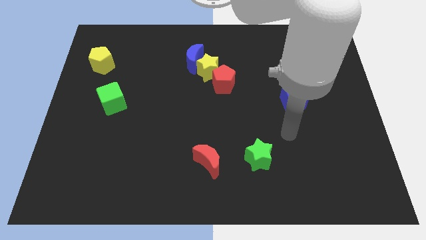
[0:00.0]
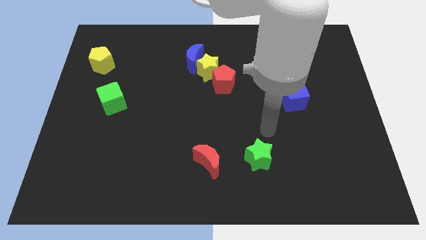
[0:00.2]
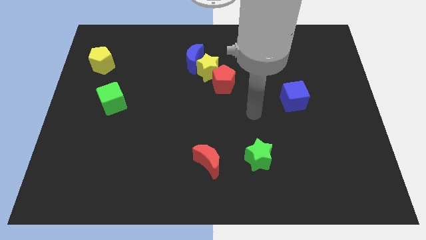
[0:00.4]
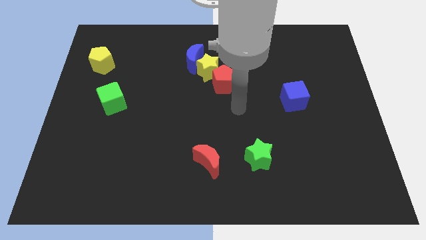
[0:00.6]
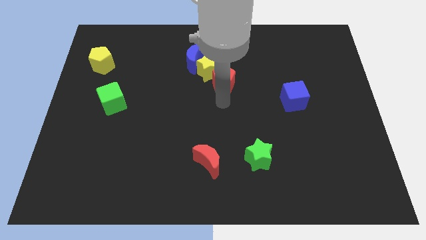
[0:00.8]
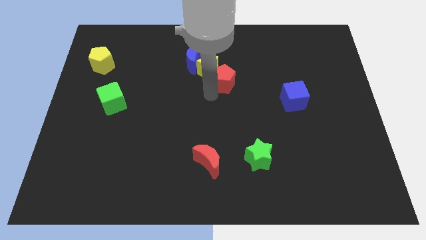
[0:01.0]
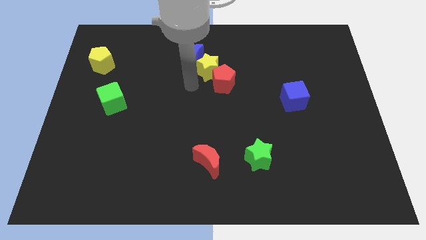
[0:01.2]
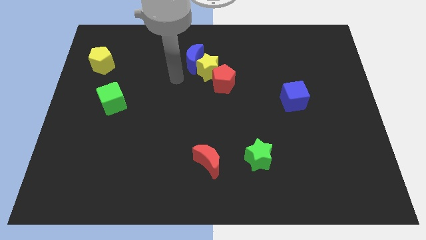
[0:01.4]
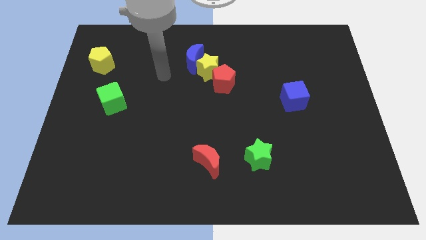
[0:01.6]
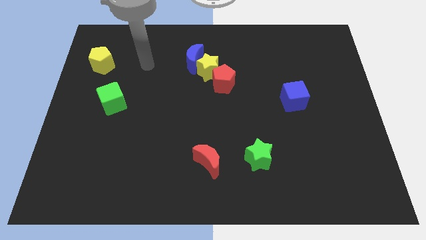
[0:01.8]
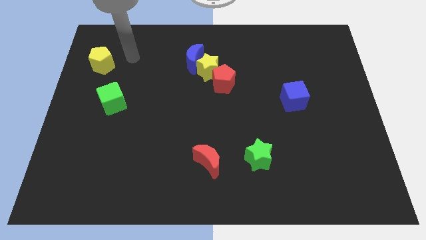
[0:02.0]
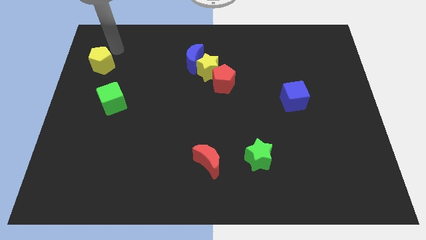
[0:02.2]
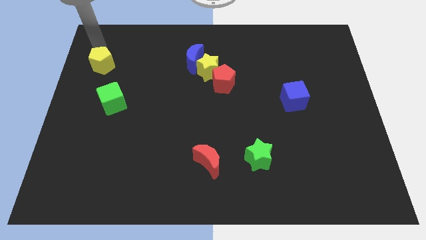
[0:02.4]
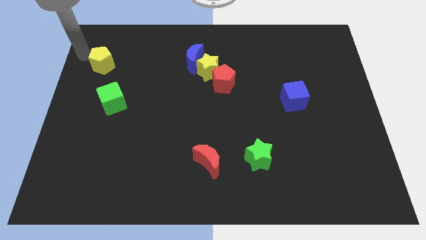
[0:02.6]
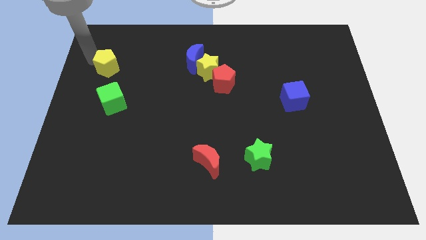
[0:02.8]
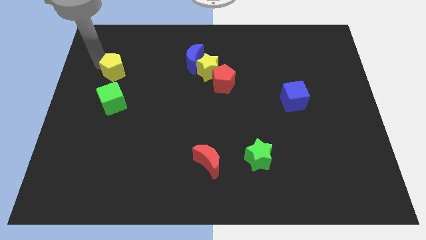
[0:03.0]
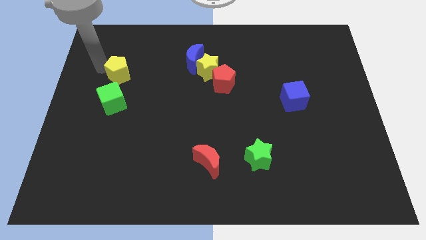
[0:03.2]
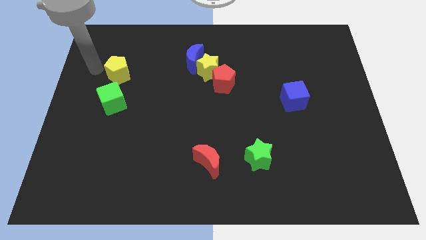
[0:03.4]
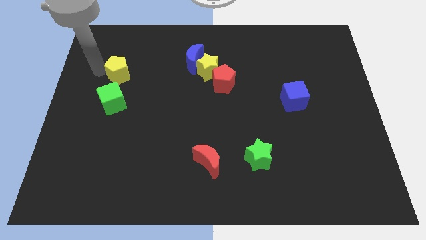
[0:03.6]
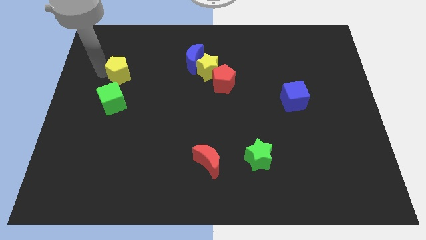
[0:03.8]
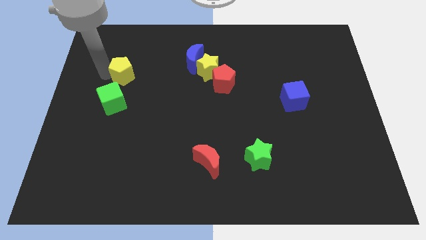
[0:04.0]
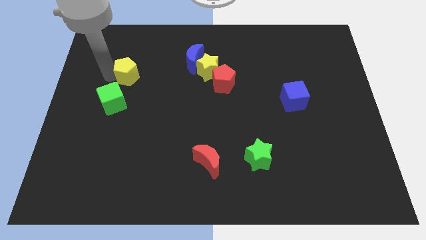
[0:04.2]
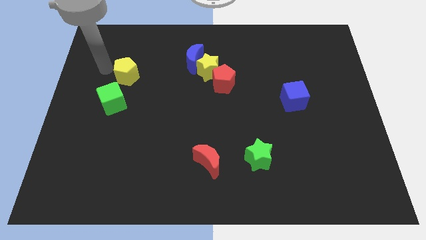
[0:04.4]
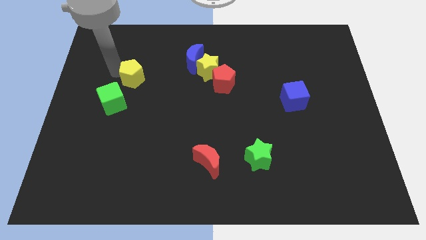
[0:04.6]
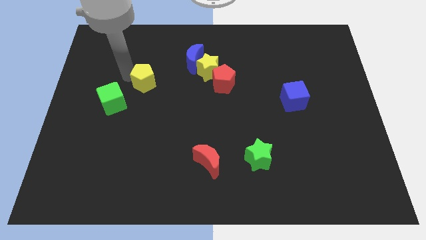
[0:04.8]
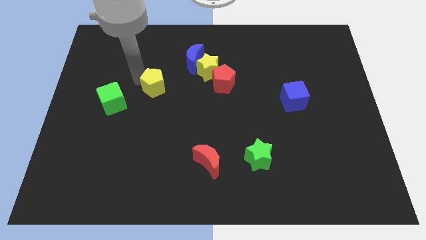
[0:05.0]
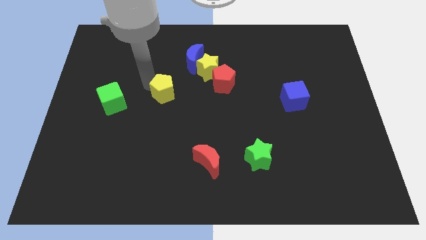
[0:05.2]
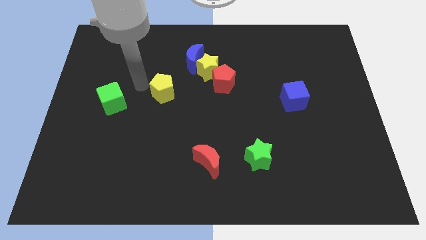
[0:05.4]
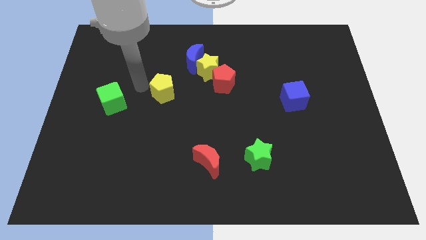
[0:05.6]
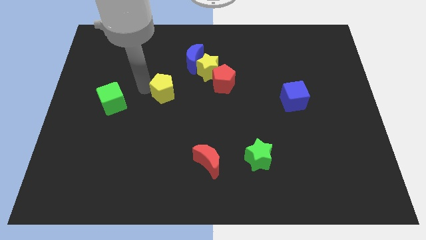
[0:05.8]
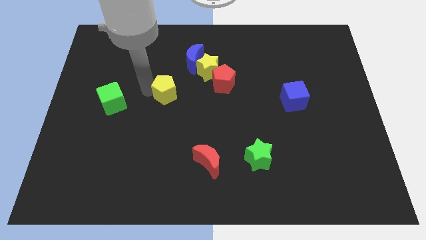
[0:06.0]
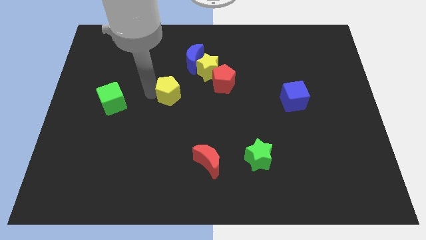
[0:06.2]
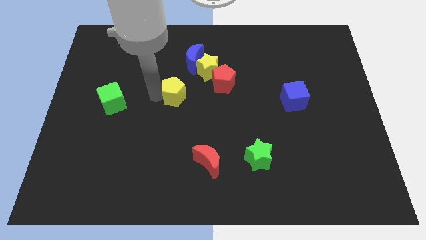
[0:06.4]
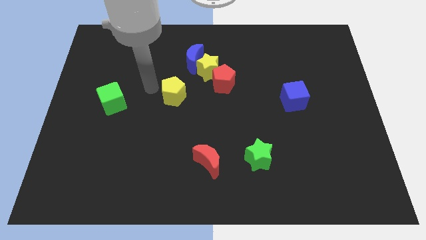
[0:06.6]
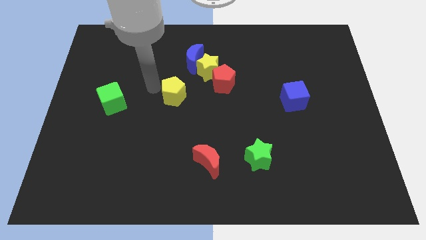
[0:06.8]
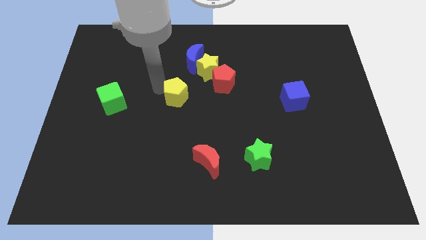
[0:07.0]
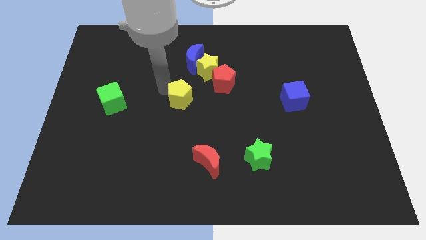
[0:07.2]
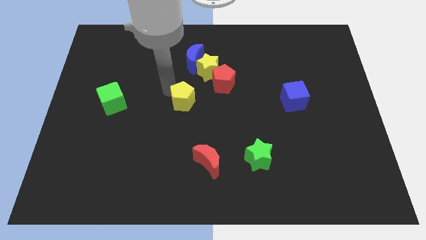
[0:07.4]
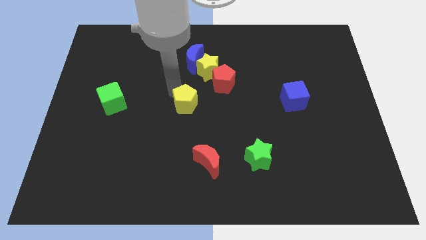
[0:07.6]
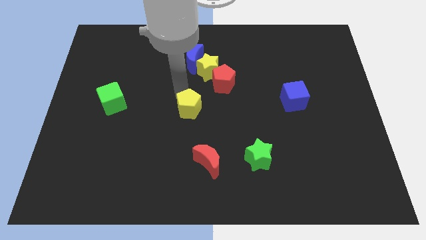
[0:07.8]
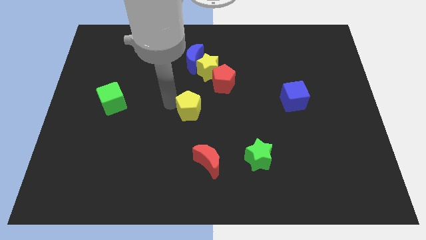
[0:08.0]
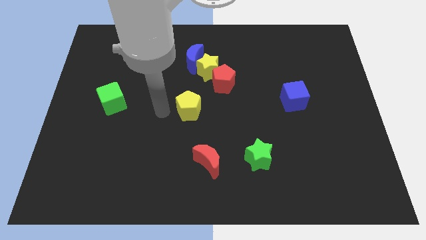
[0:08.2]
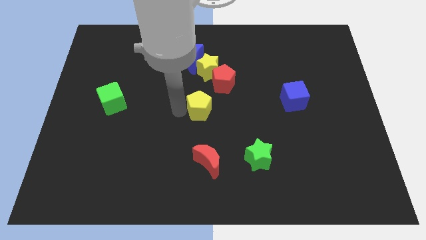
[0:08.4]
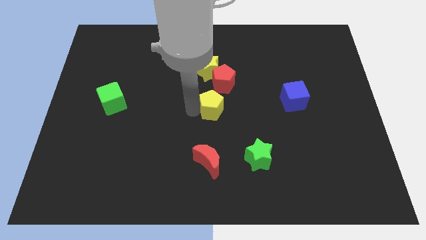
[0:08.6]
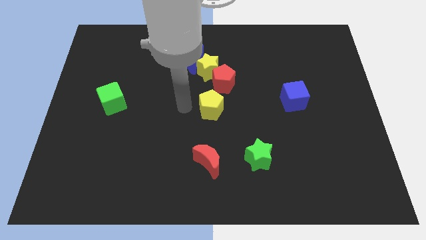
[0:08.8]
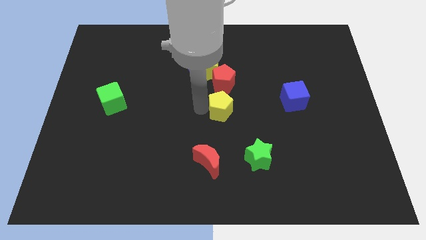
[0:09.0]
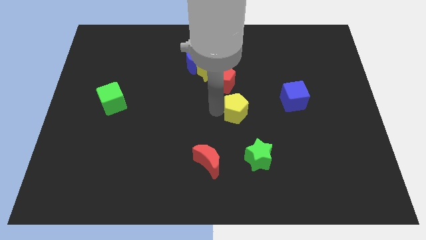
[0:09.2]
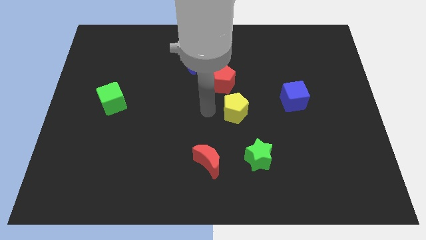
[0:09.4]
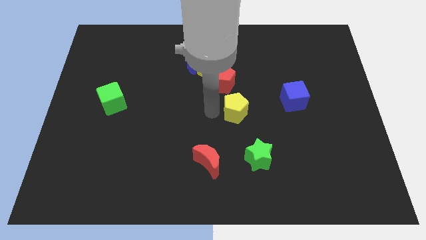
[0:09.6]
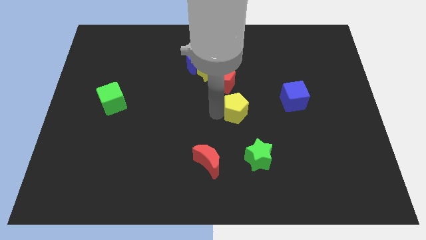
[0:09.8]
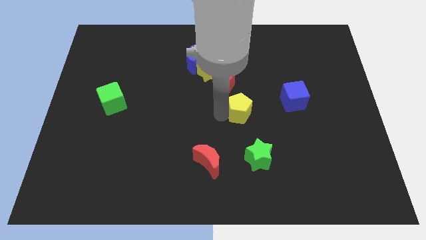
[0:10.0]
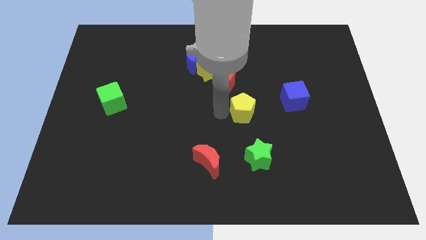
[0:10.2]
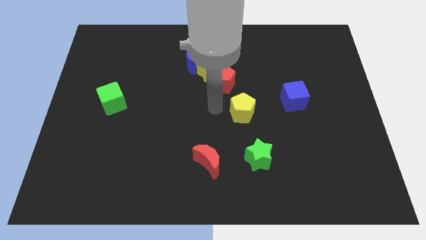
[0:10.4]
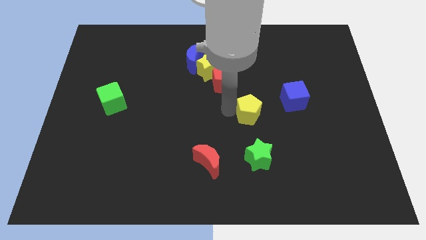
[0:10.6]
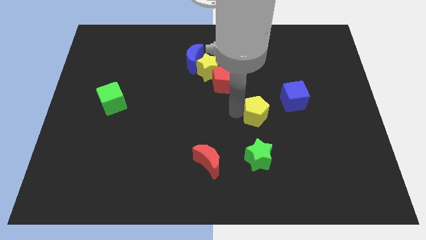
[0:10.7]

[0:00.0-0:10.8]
push the yellow pentagon to the bottom left side of the blue cube

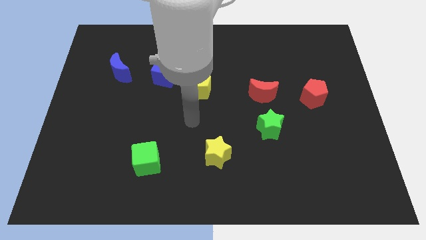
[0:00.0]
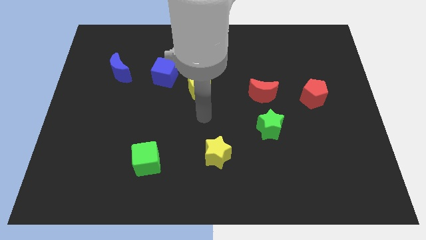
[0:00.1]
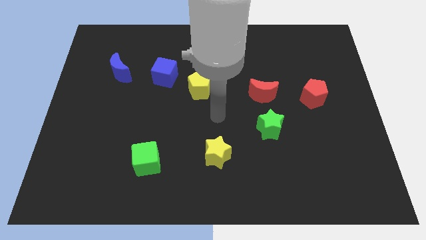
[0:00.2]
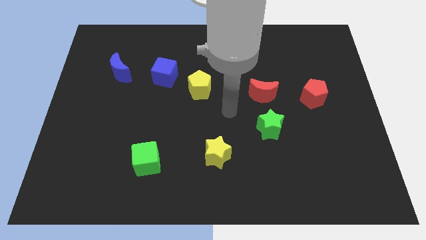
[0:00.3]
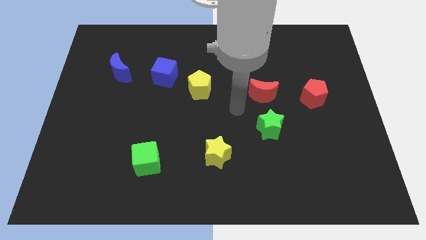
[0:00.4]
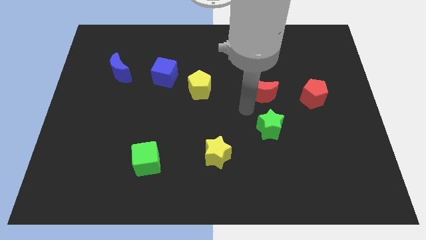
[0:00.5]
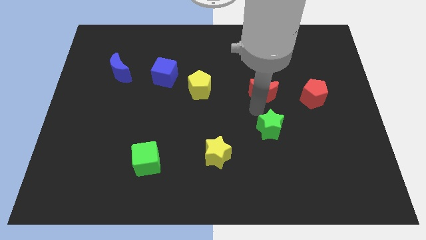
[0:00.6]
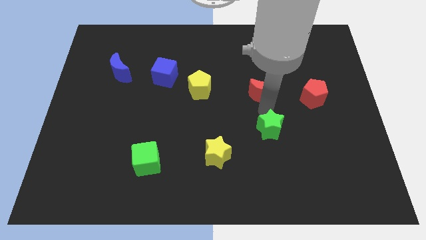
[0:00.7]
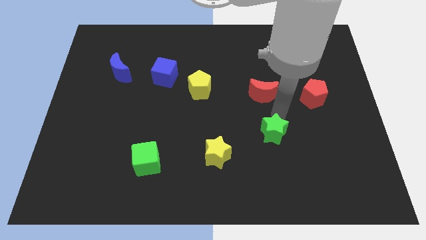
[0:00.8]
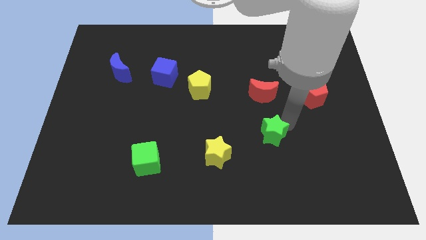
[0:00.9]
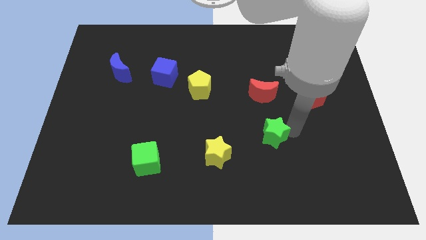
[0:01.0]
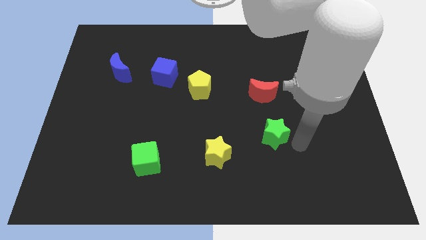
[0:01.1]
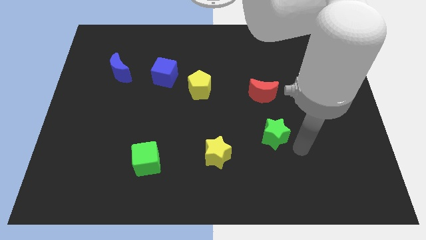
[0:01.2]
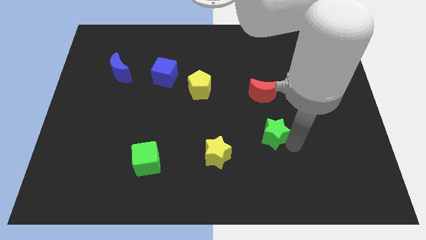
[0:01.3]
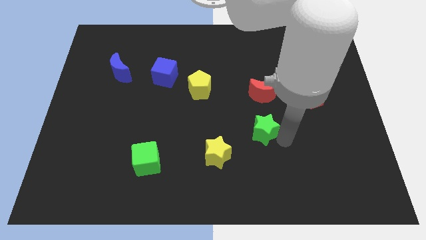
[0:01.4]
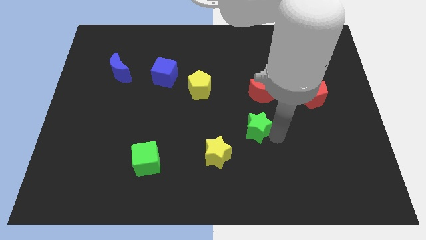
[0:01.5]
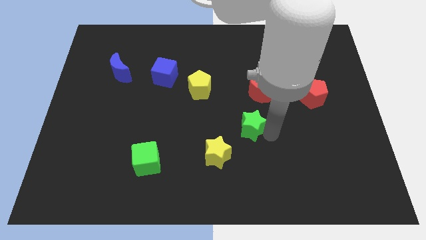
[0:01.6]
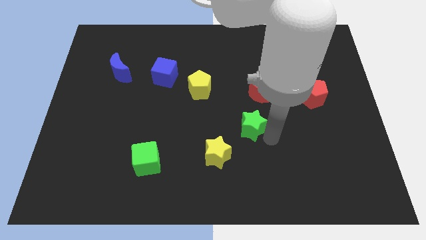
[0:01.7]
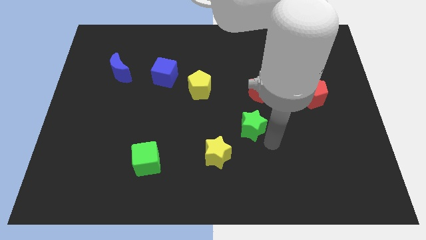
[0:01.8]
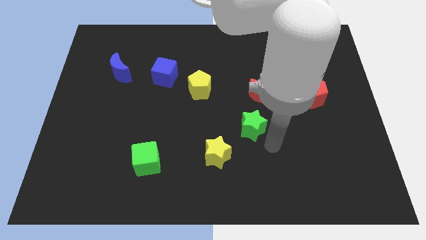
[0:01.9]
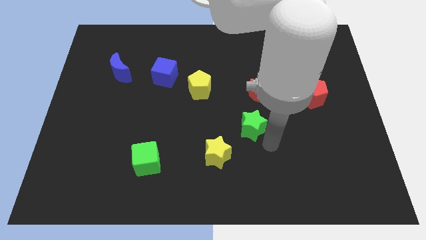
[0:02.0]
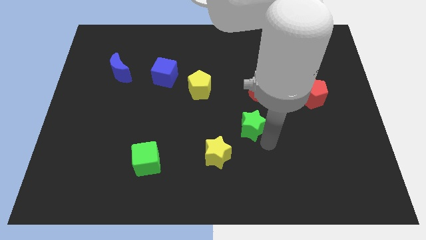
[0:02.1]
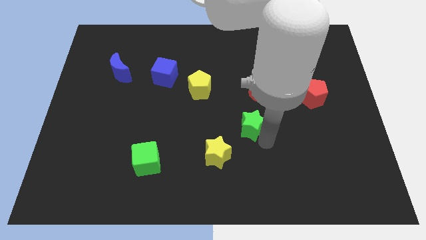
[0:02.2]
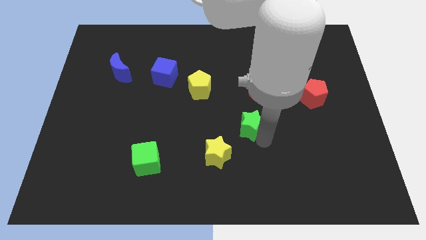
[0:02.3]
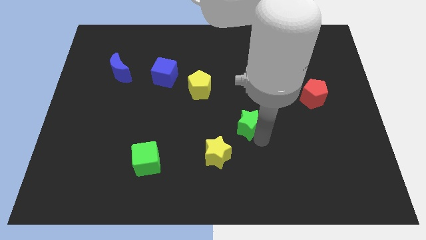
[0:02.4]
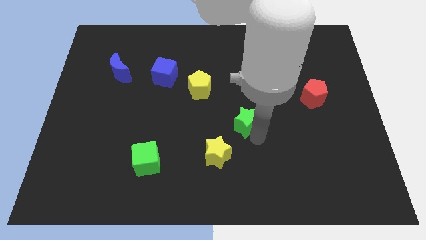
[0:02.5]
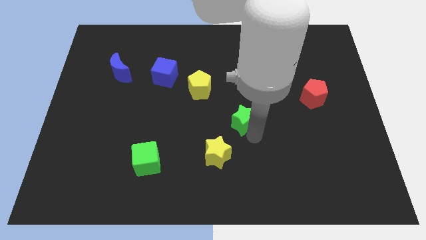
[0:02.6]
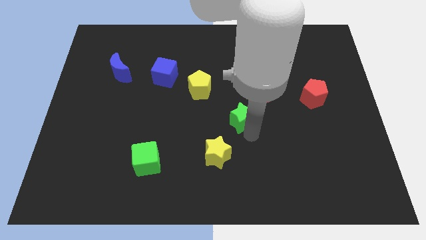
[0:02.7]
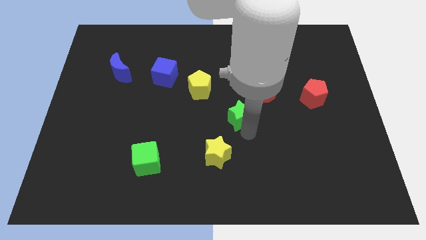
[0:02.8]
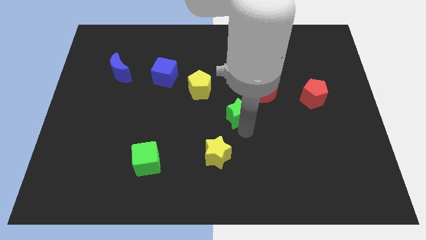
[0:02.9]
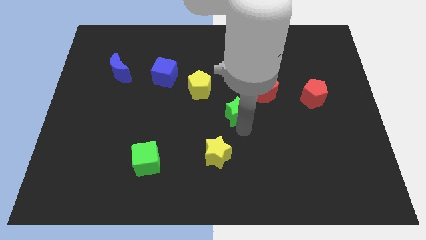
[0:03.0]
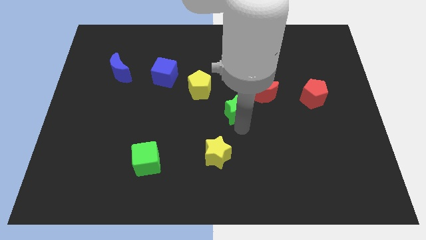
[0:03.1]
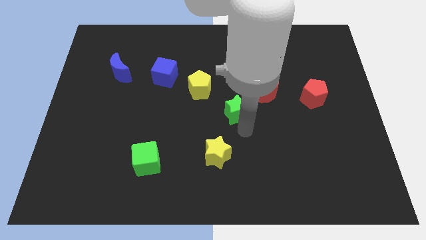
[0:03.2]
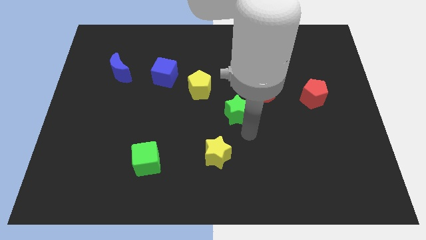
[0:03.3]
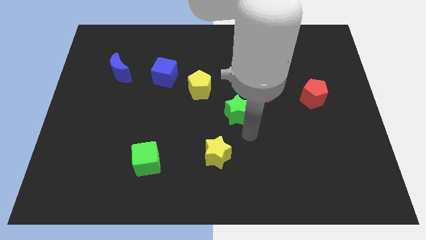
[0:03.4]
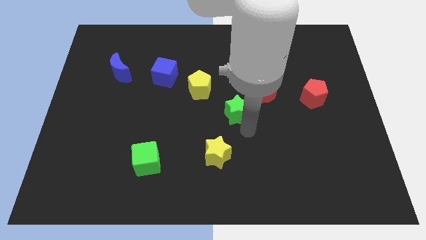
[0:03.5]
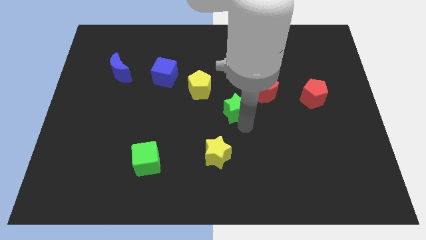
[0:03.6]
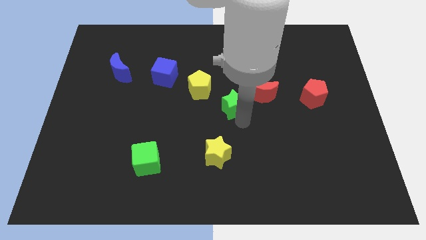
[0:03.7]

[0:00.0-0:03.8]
push the green star left of the red moon
